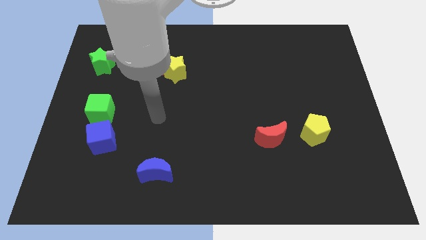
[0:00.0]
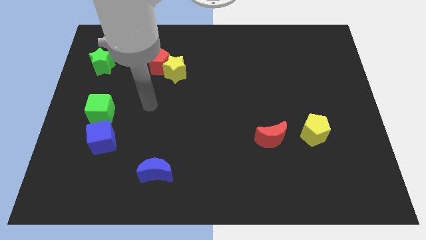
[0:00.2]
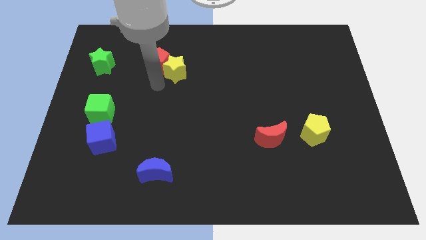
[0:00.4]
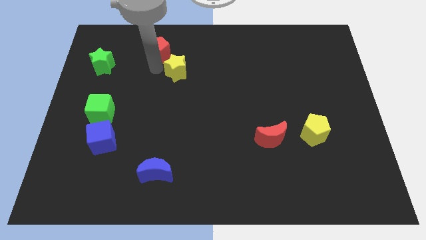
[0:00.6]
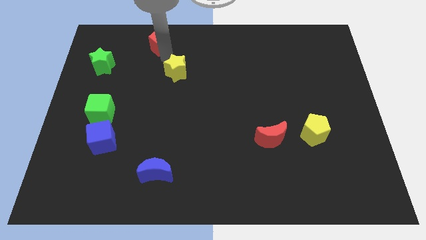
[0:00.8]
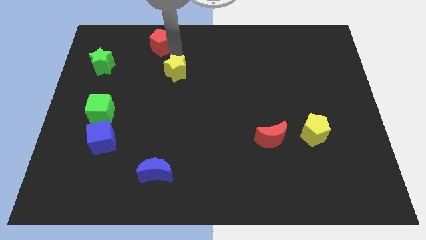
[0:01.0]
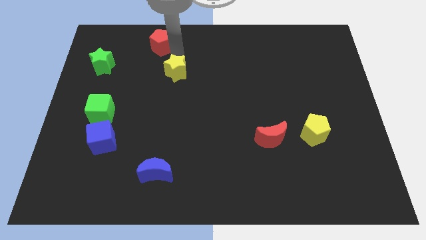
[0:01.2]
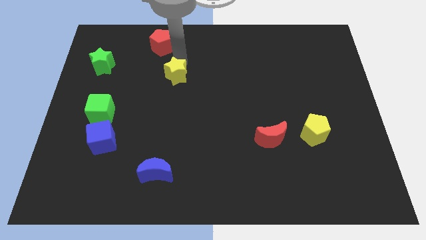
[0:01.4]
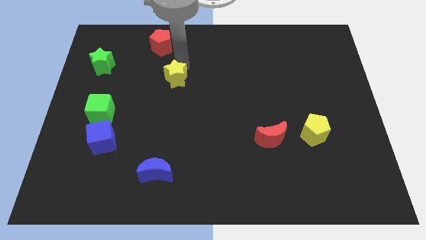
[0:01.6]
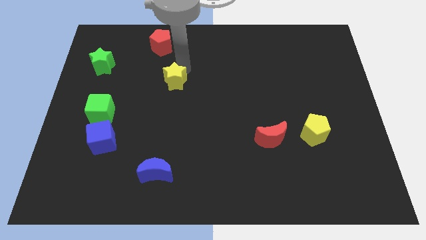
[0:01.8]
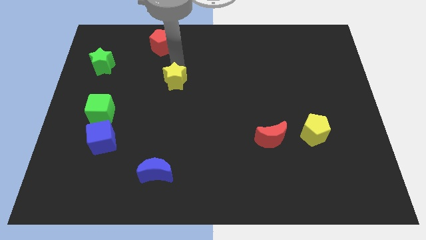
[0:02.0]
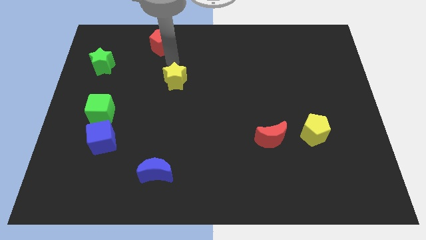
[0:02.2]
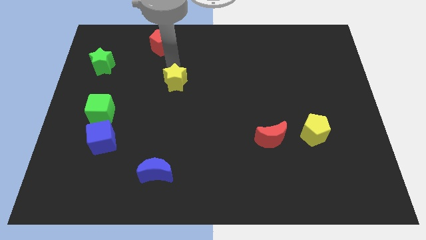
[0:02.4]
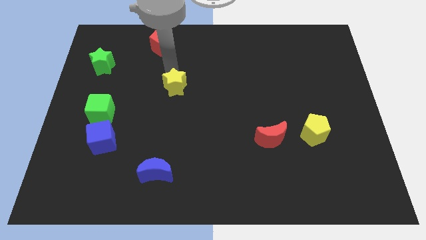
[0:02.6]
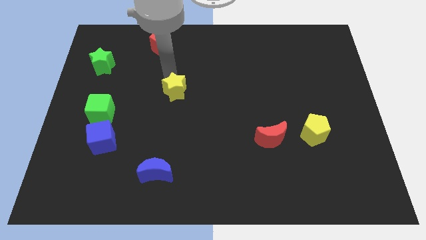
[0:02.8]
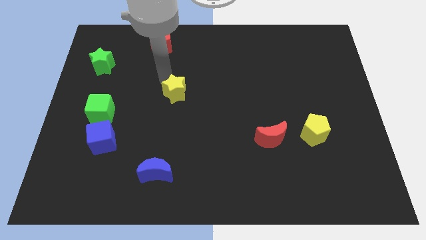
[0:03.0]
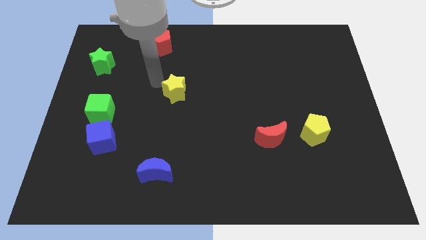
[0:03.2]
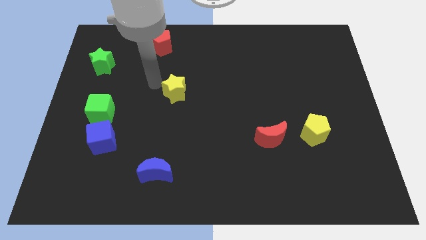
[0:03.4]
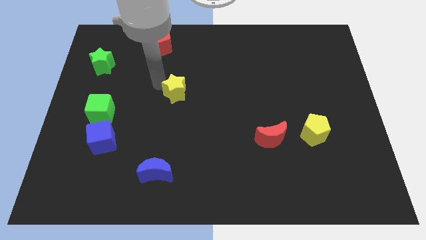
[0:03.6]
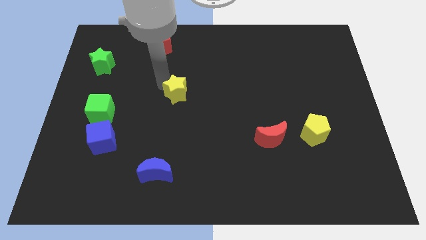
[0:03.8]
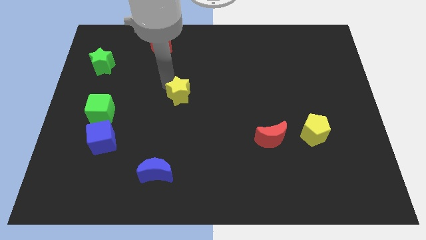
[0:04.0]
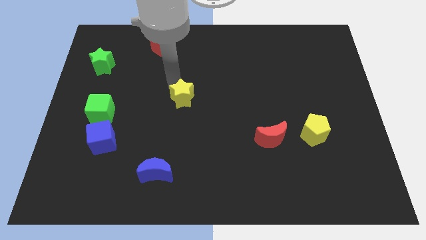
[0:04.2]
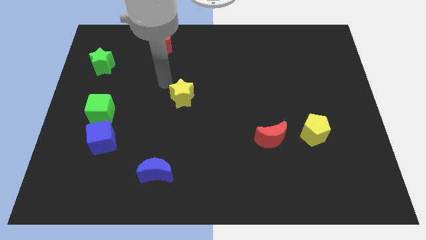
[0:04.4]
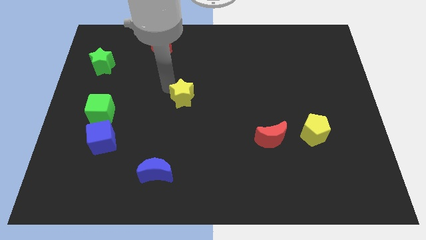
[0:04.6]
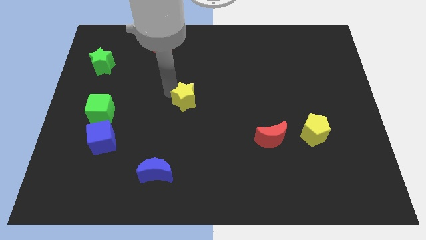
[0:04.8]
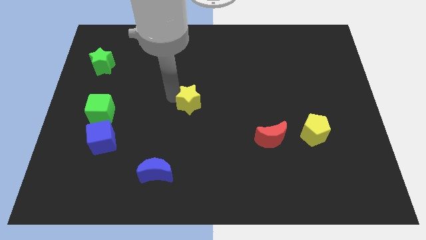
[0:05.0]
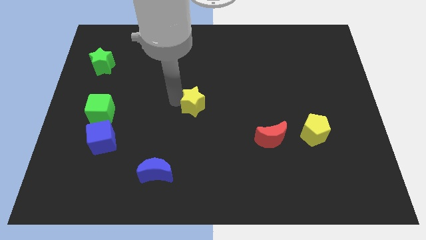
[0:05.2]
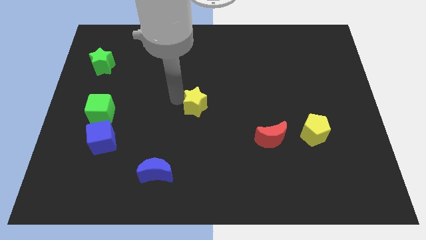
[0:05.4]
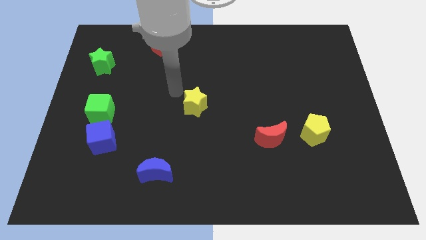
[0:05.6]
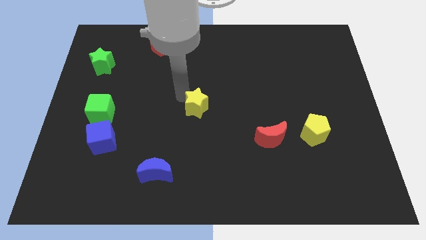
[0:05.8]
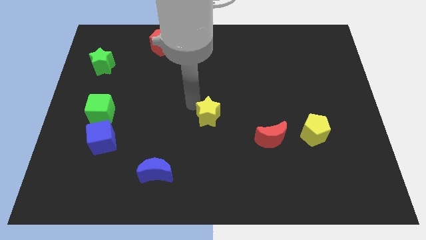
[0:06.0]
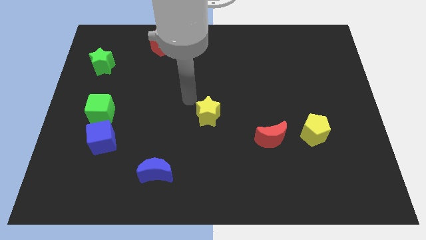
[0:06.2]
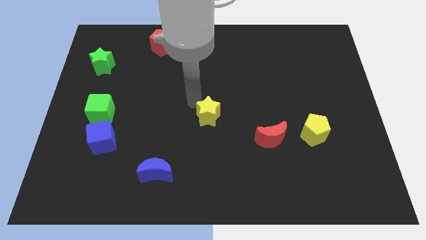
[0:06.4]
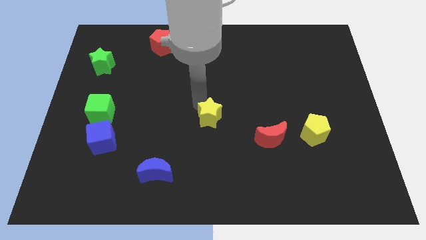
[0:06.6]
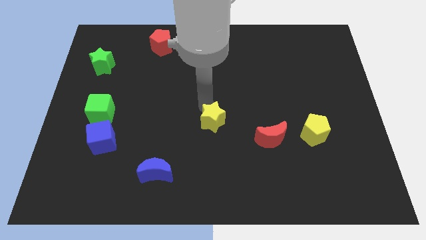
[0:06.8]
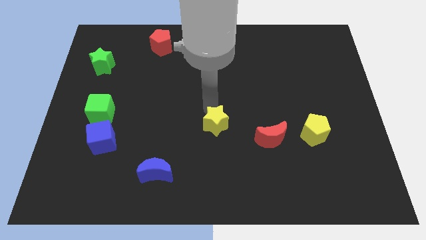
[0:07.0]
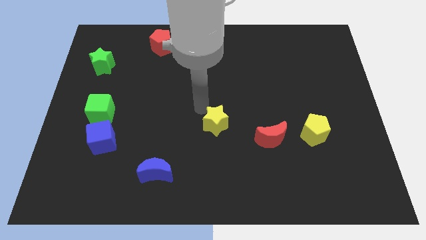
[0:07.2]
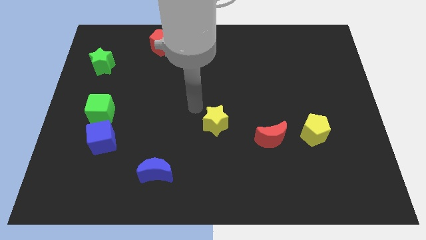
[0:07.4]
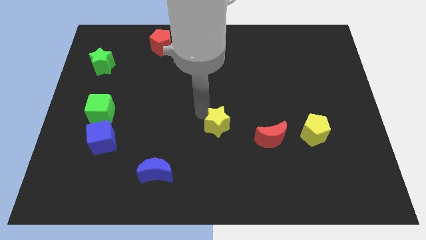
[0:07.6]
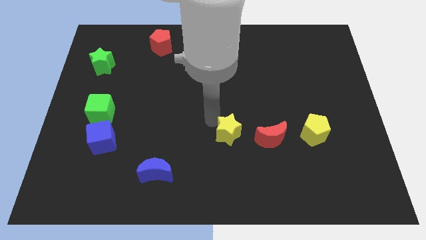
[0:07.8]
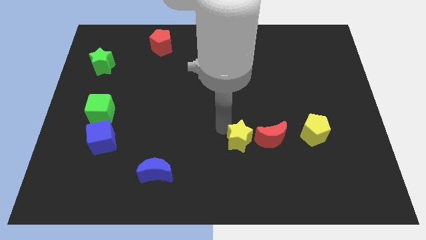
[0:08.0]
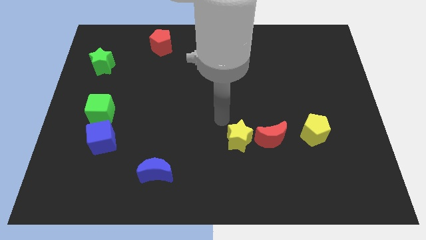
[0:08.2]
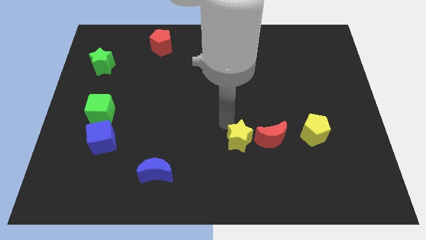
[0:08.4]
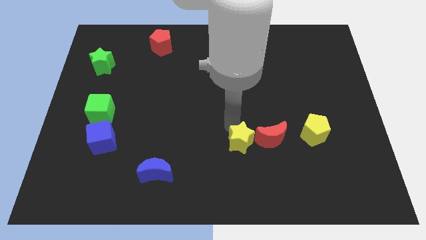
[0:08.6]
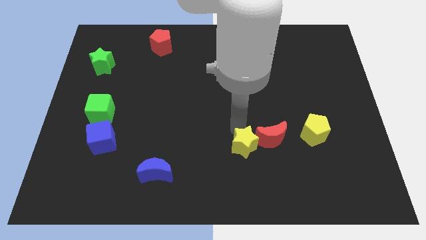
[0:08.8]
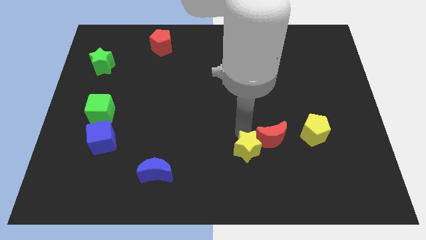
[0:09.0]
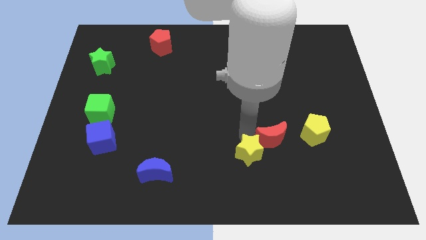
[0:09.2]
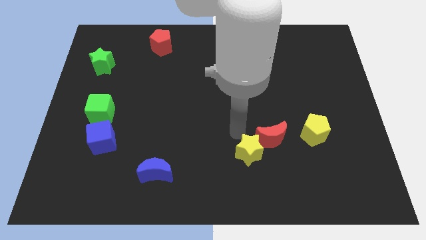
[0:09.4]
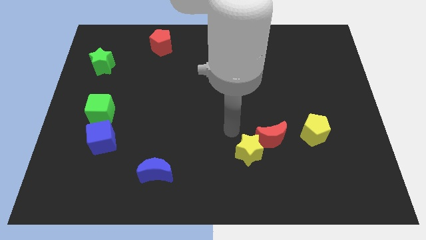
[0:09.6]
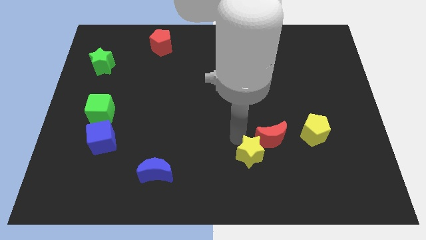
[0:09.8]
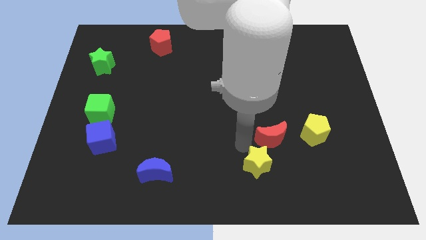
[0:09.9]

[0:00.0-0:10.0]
slide the yellow star below the red moon

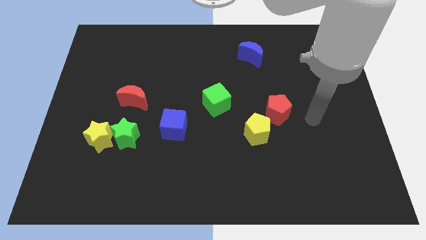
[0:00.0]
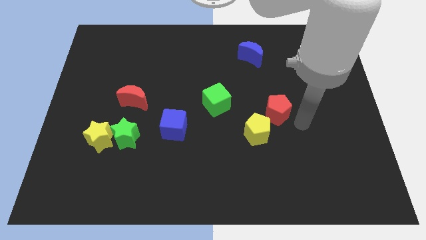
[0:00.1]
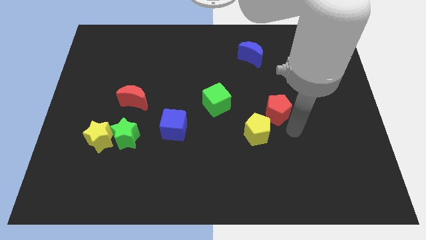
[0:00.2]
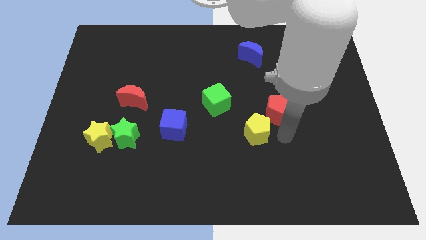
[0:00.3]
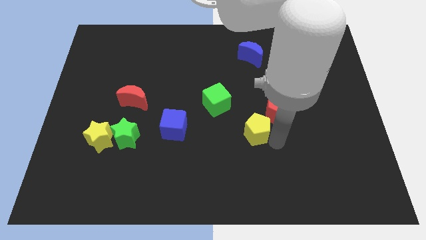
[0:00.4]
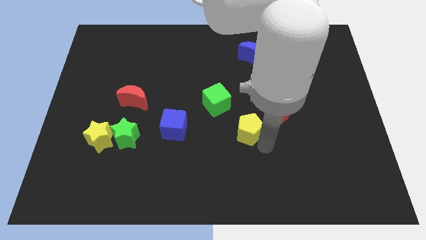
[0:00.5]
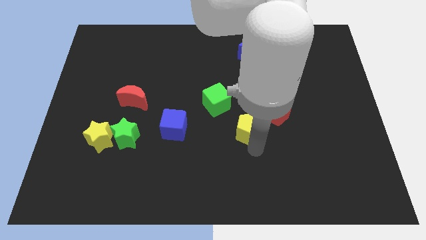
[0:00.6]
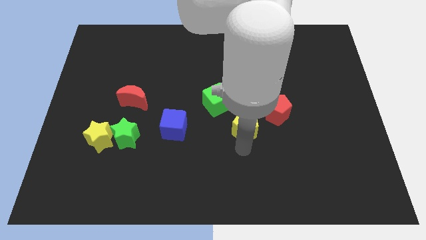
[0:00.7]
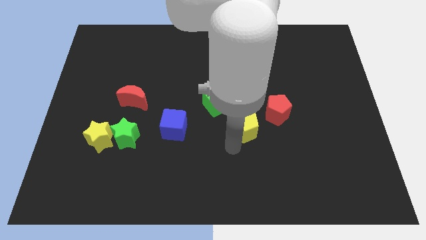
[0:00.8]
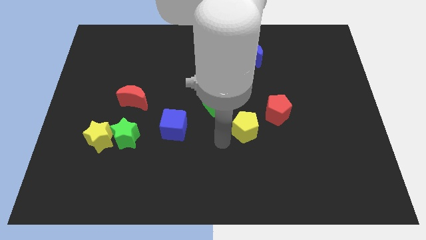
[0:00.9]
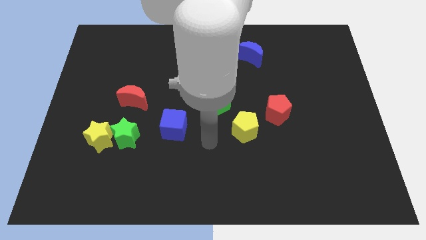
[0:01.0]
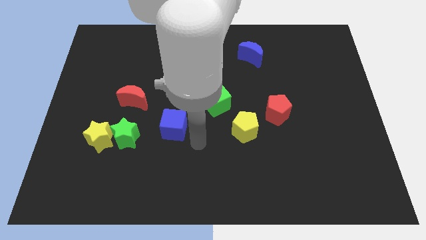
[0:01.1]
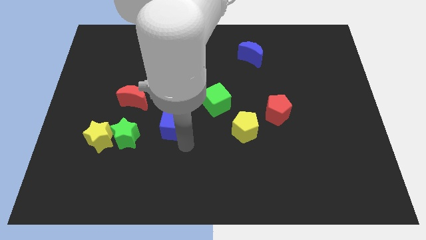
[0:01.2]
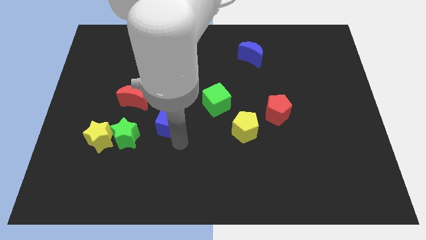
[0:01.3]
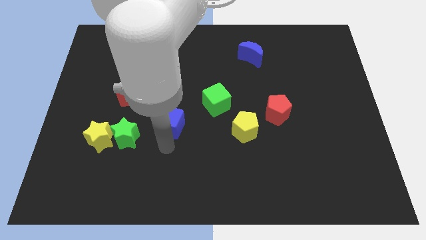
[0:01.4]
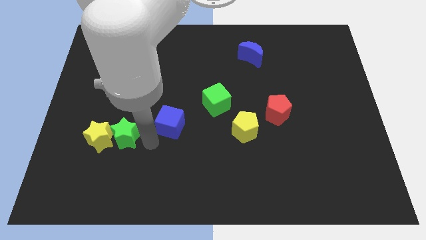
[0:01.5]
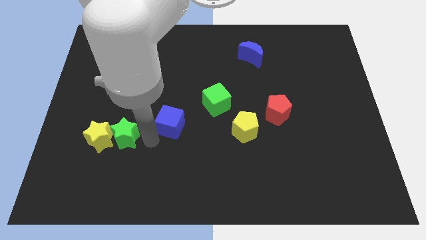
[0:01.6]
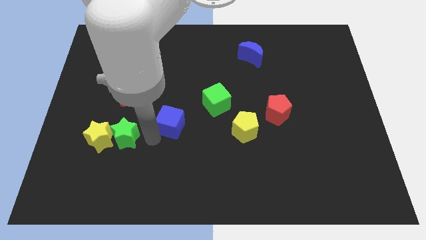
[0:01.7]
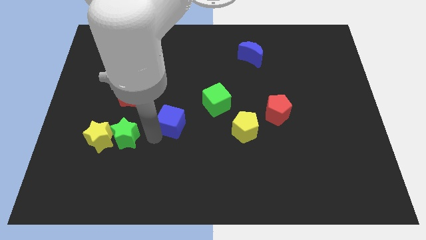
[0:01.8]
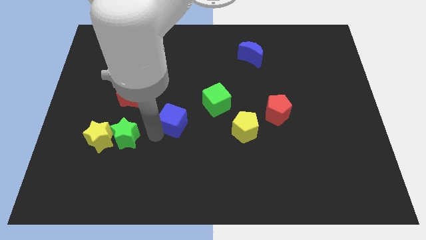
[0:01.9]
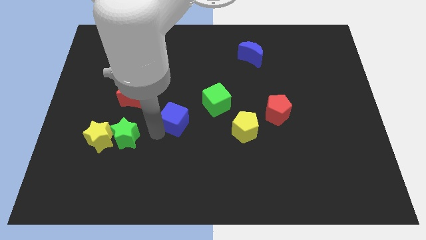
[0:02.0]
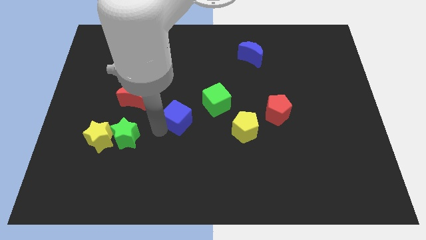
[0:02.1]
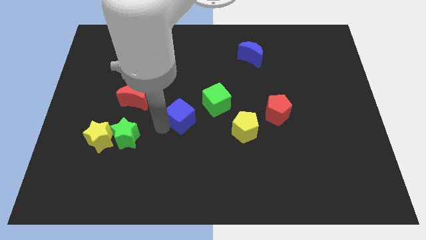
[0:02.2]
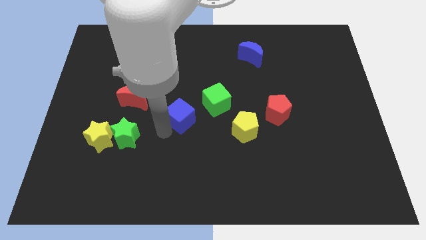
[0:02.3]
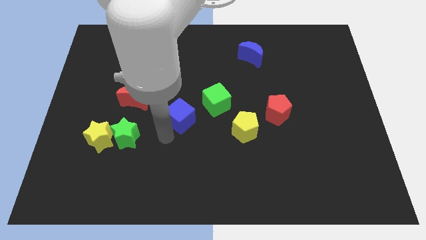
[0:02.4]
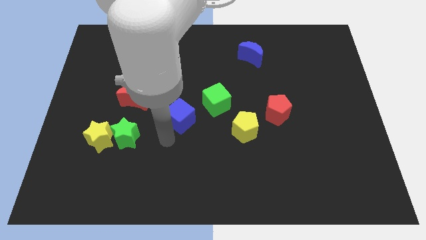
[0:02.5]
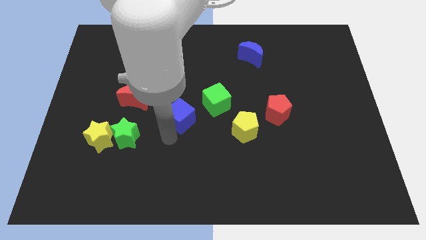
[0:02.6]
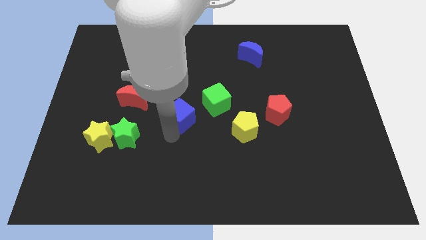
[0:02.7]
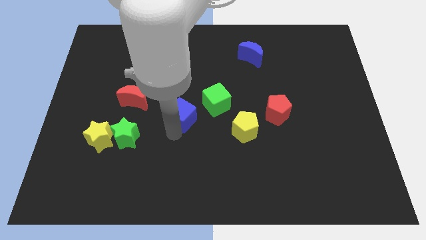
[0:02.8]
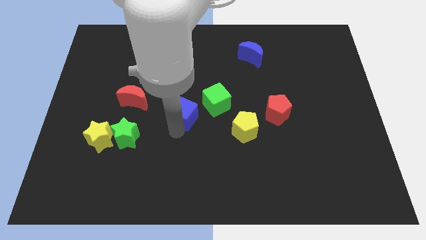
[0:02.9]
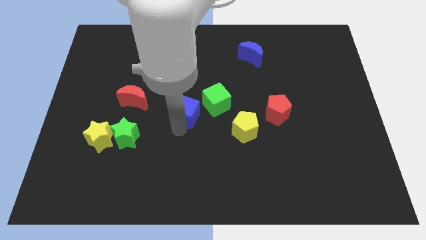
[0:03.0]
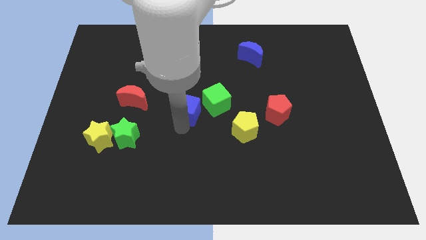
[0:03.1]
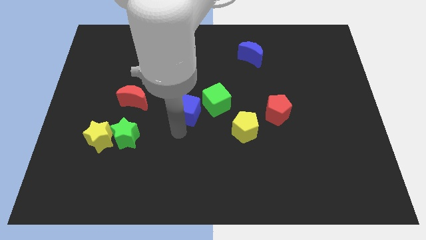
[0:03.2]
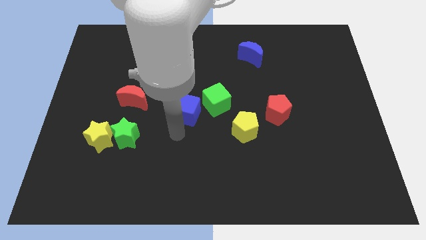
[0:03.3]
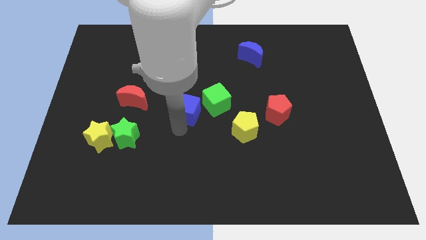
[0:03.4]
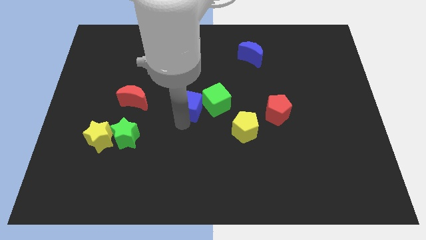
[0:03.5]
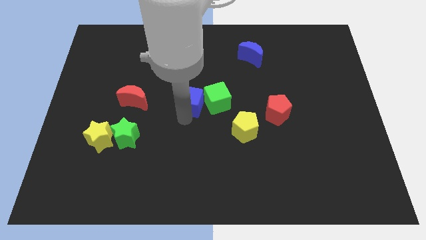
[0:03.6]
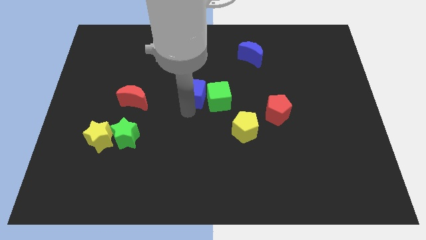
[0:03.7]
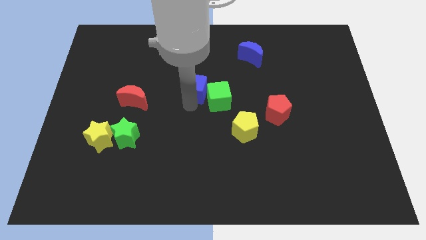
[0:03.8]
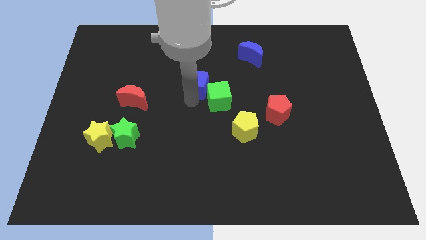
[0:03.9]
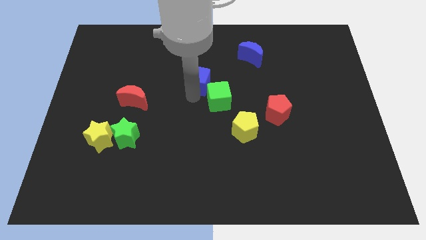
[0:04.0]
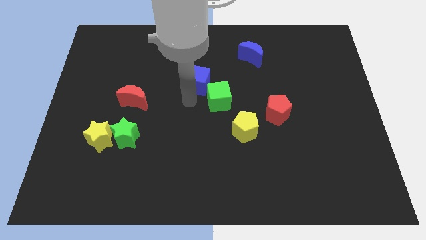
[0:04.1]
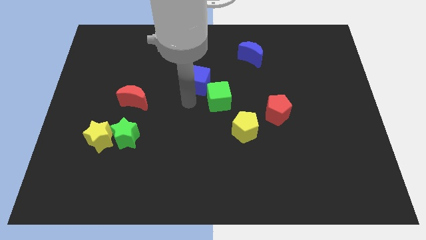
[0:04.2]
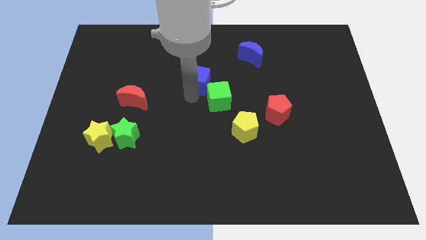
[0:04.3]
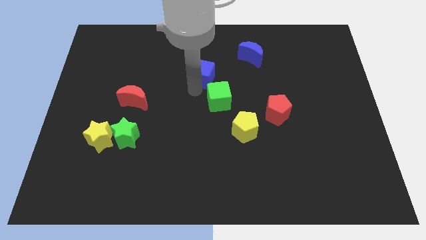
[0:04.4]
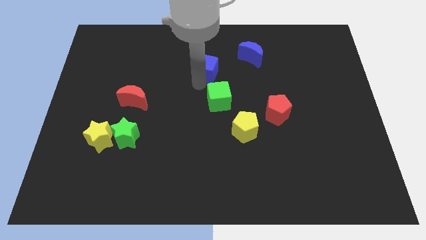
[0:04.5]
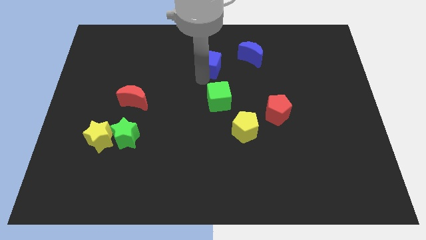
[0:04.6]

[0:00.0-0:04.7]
slide the blue cube just left of the blue moon
